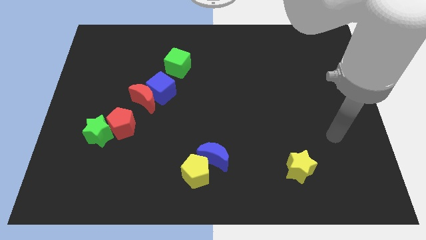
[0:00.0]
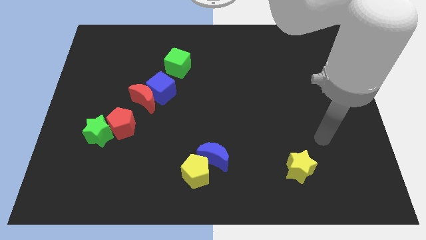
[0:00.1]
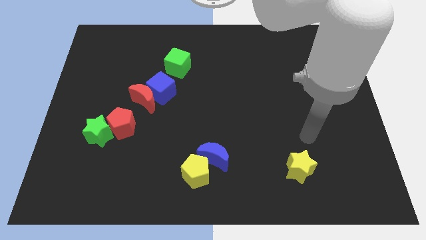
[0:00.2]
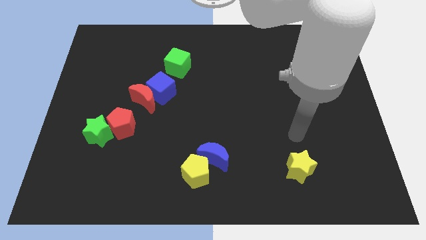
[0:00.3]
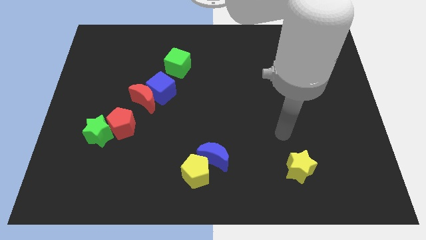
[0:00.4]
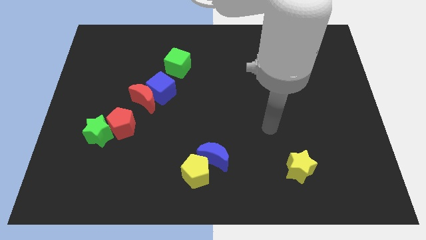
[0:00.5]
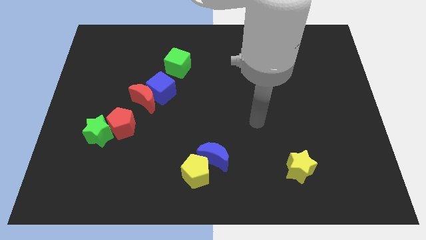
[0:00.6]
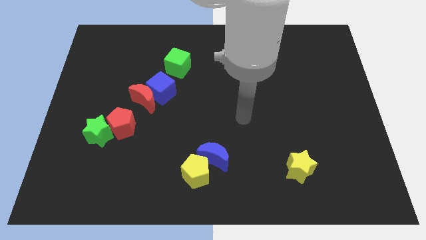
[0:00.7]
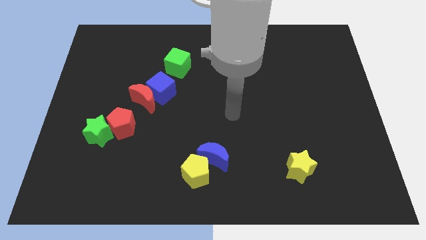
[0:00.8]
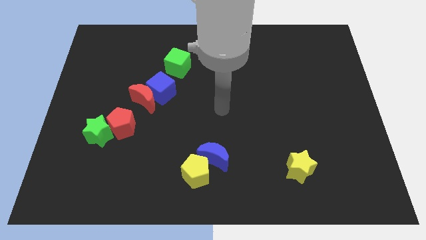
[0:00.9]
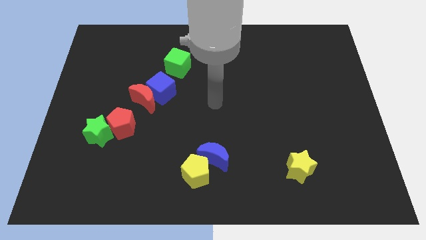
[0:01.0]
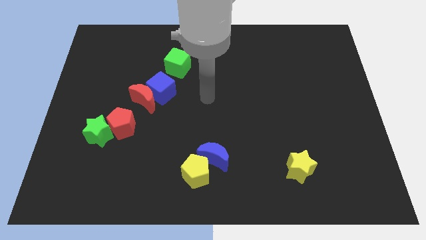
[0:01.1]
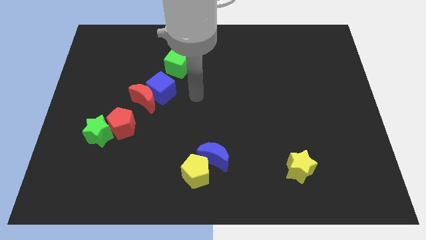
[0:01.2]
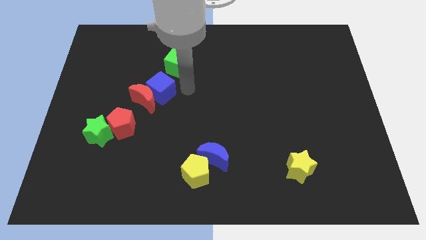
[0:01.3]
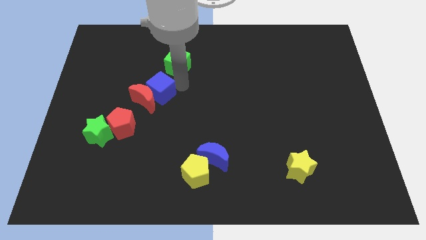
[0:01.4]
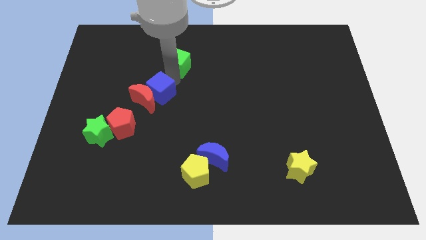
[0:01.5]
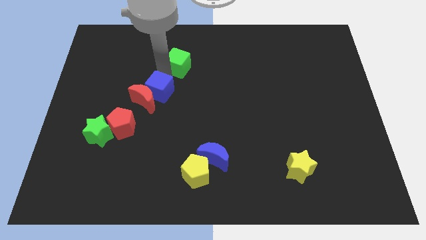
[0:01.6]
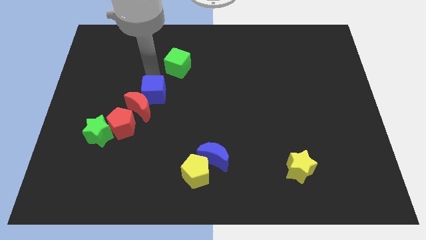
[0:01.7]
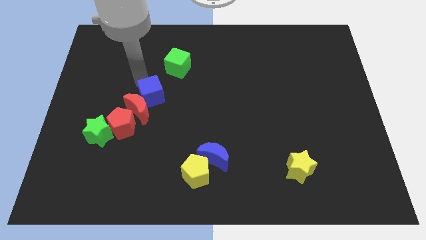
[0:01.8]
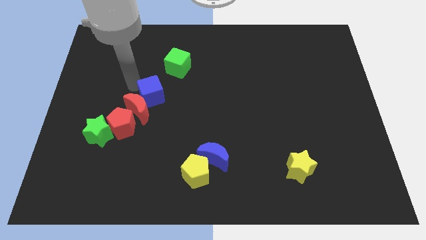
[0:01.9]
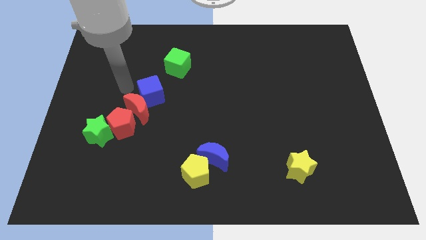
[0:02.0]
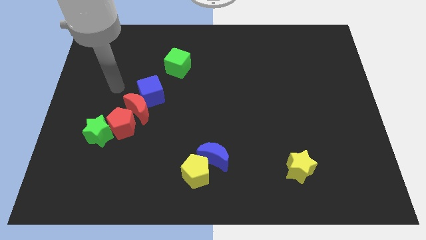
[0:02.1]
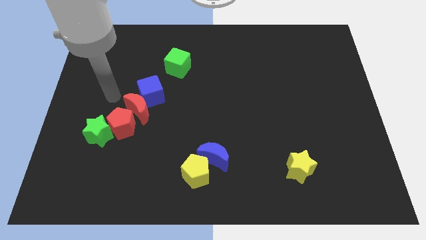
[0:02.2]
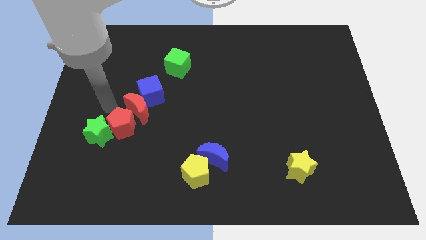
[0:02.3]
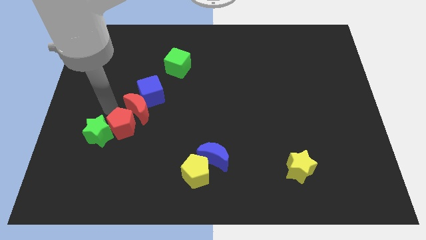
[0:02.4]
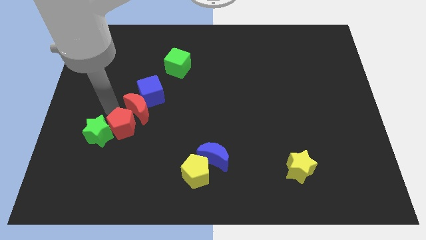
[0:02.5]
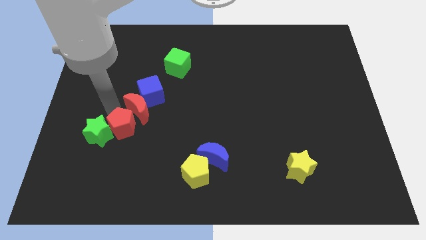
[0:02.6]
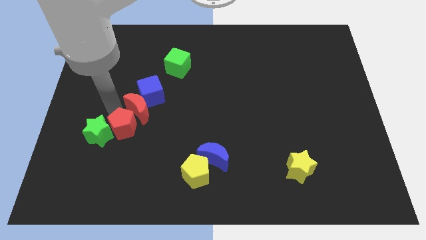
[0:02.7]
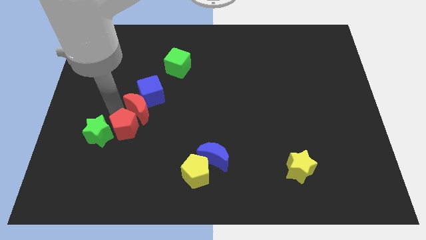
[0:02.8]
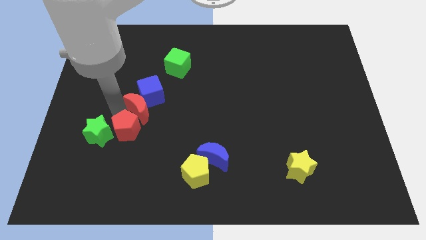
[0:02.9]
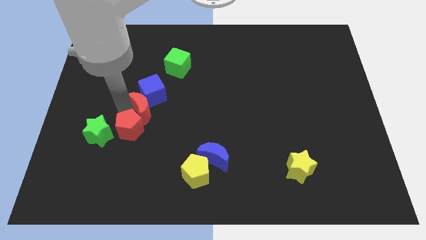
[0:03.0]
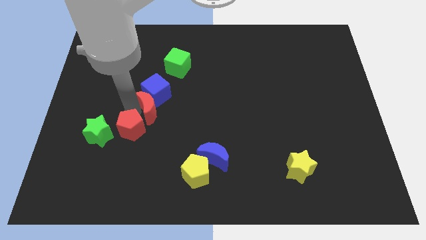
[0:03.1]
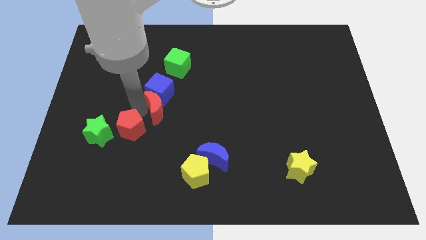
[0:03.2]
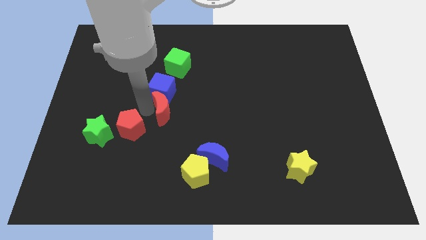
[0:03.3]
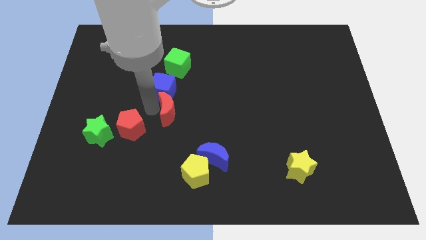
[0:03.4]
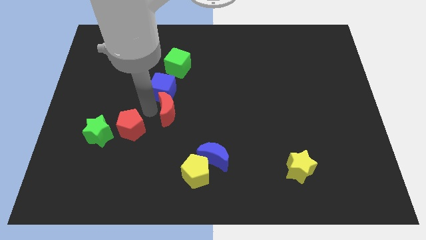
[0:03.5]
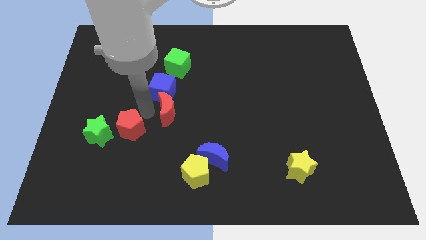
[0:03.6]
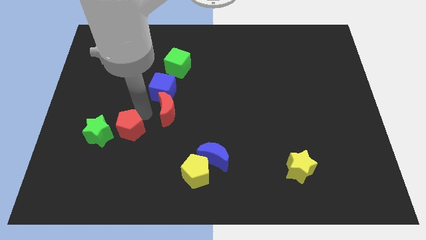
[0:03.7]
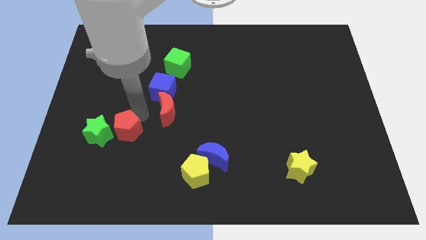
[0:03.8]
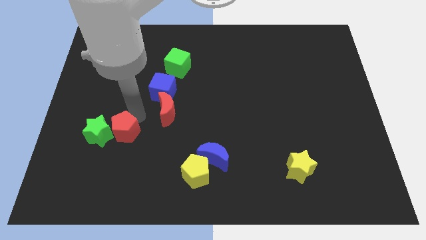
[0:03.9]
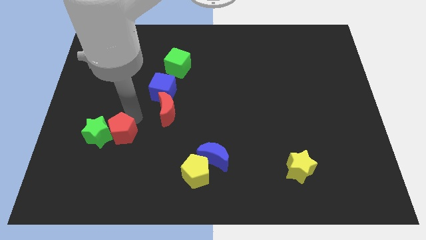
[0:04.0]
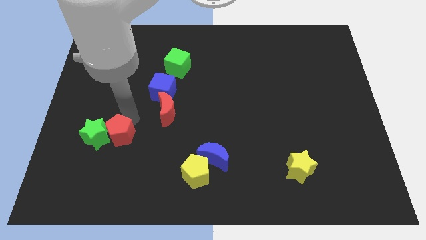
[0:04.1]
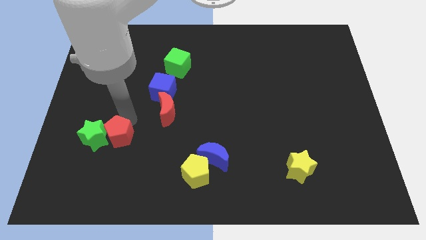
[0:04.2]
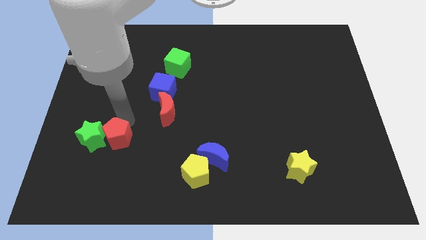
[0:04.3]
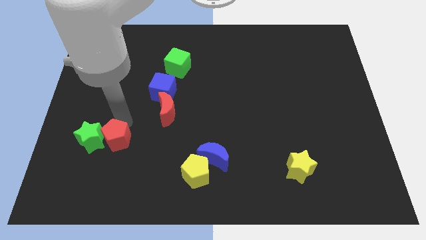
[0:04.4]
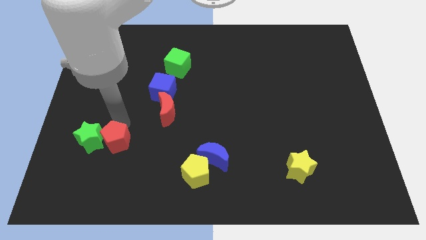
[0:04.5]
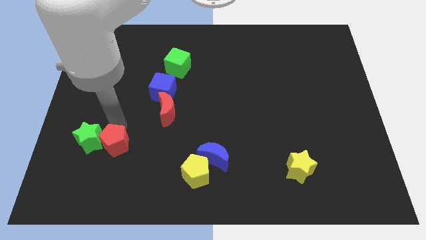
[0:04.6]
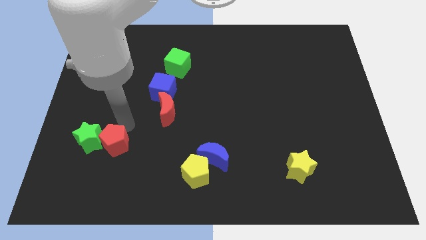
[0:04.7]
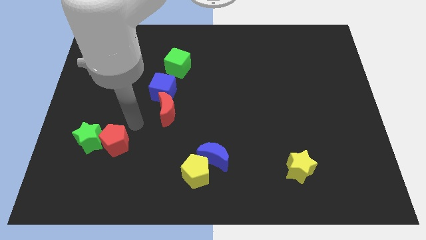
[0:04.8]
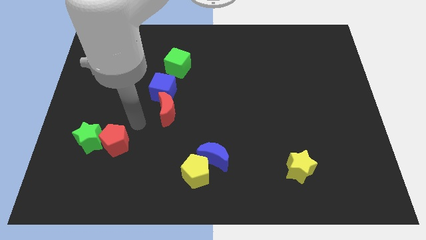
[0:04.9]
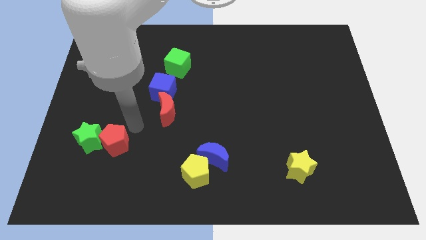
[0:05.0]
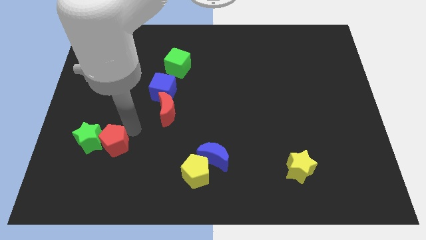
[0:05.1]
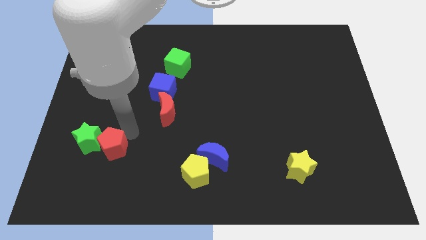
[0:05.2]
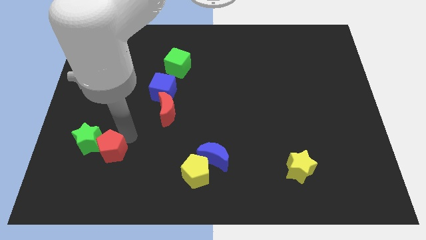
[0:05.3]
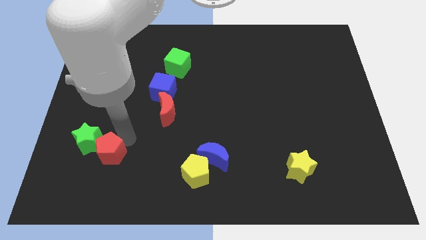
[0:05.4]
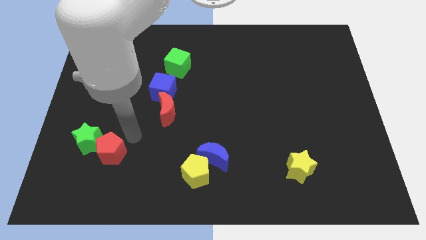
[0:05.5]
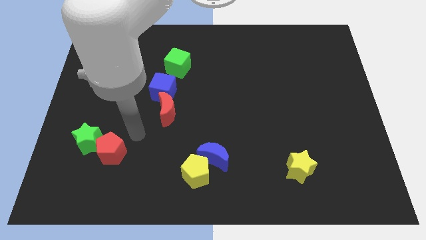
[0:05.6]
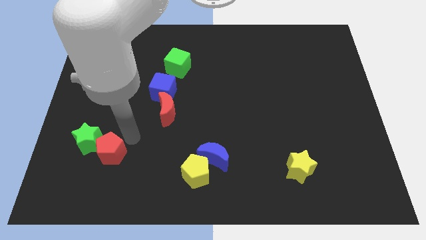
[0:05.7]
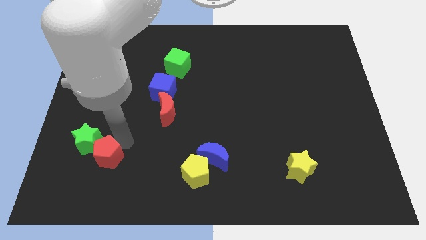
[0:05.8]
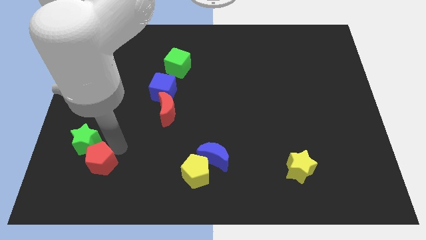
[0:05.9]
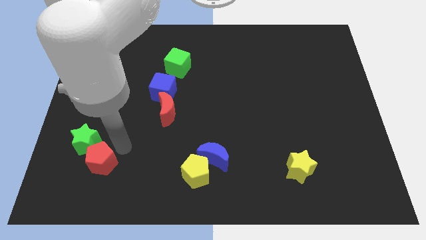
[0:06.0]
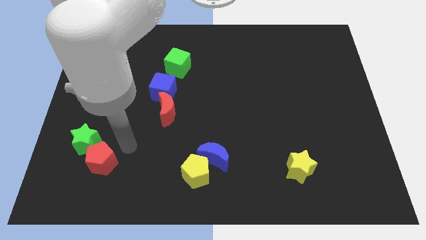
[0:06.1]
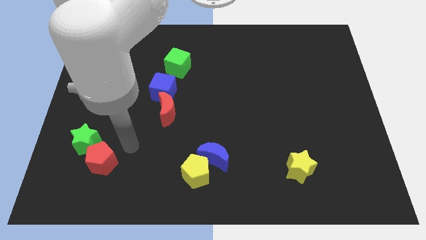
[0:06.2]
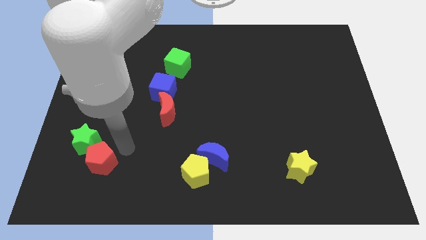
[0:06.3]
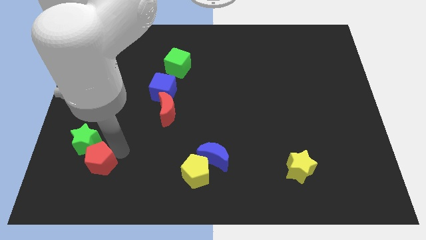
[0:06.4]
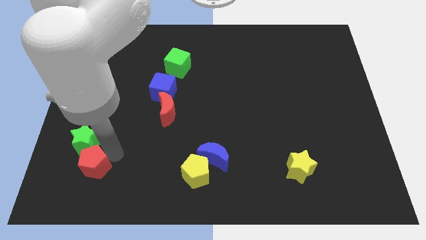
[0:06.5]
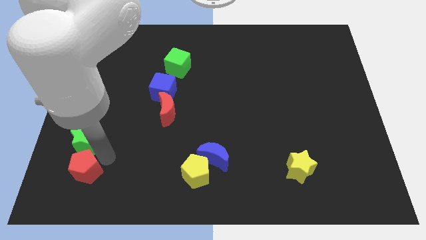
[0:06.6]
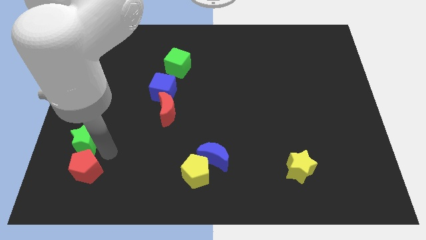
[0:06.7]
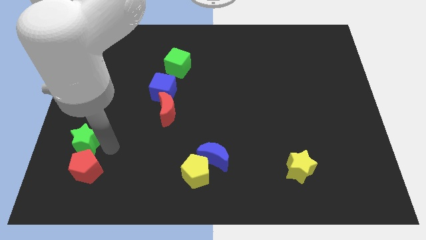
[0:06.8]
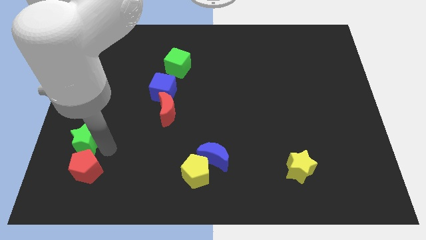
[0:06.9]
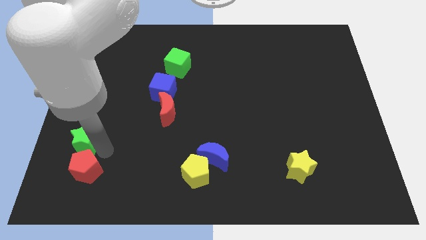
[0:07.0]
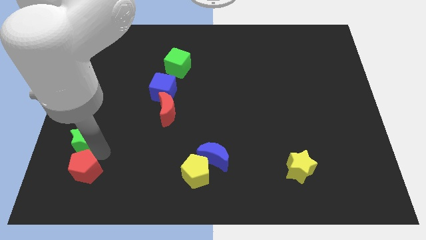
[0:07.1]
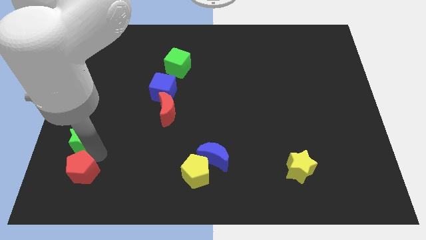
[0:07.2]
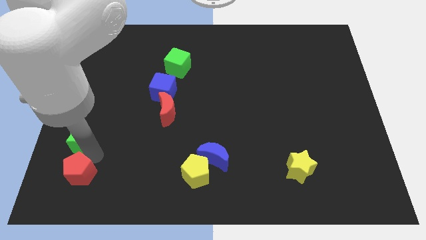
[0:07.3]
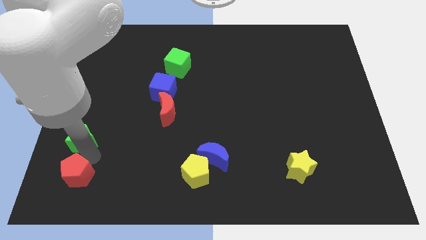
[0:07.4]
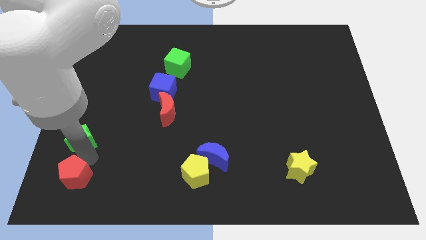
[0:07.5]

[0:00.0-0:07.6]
put the red pentagon to the bottom left
